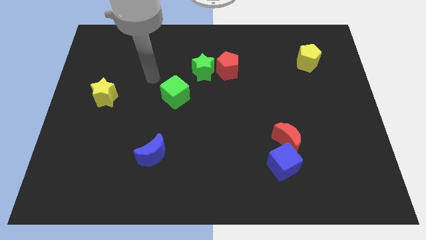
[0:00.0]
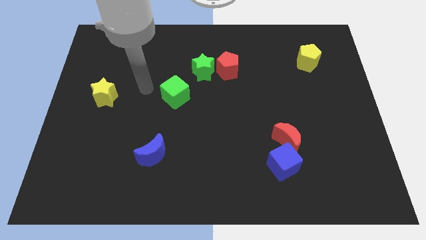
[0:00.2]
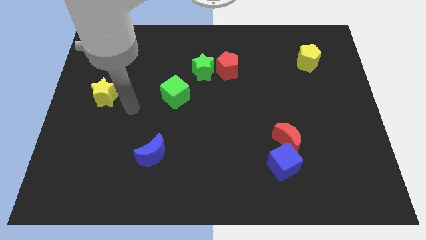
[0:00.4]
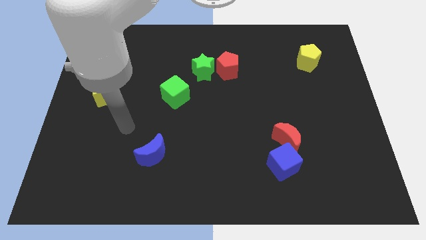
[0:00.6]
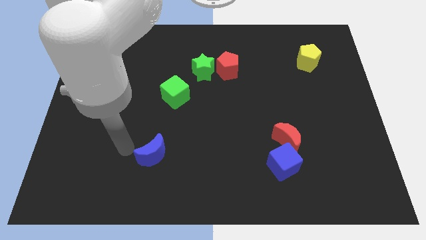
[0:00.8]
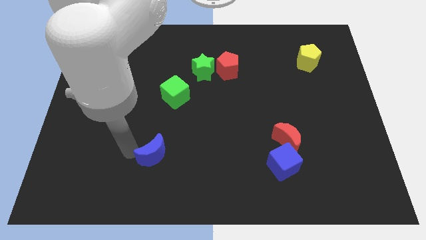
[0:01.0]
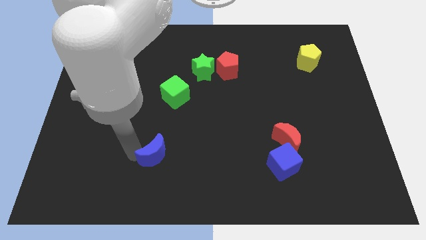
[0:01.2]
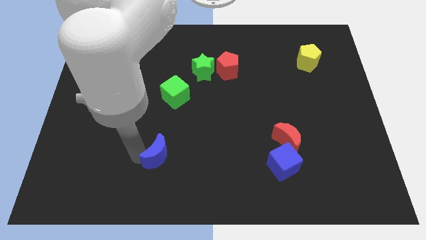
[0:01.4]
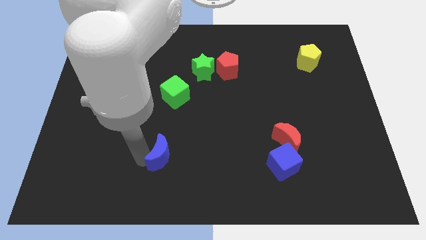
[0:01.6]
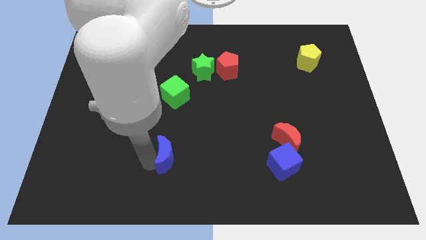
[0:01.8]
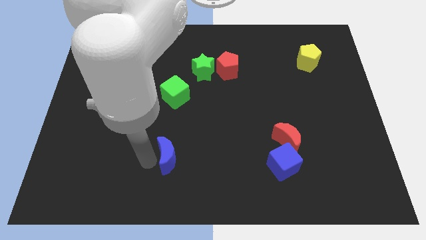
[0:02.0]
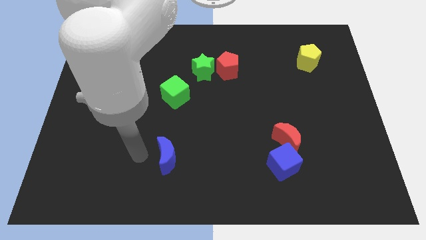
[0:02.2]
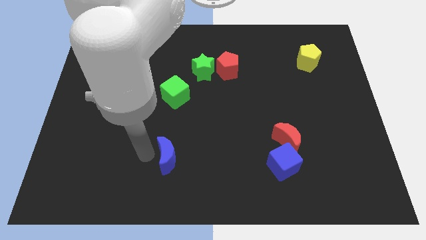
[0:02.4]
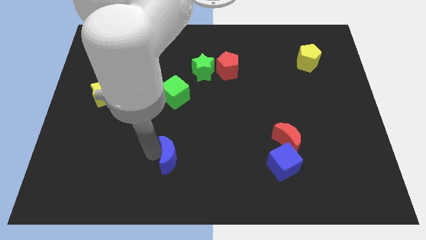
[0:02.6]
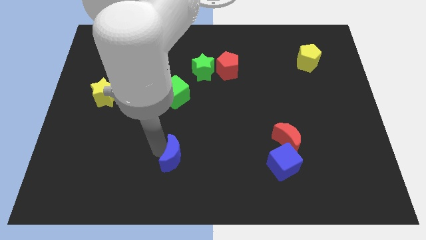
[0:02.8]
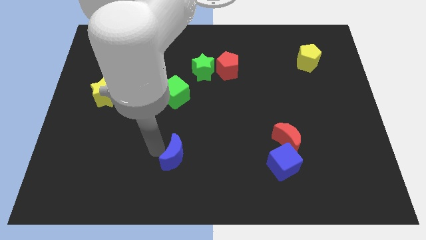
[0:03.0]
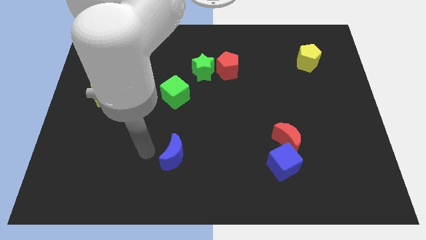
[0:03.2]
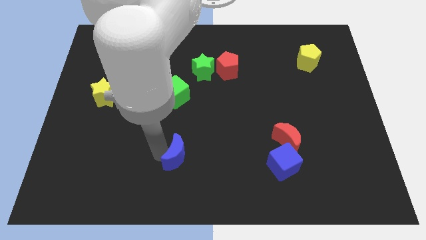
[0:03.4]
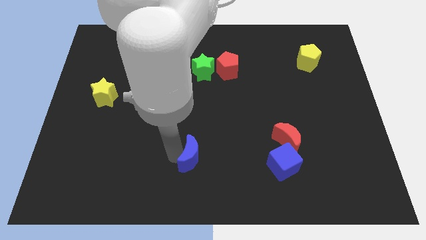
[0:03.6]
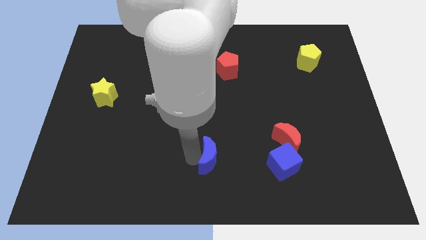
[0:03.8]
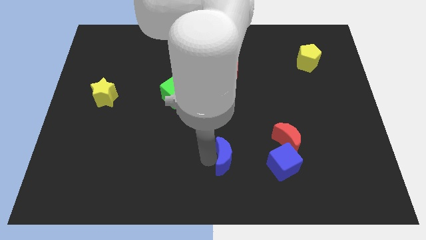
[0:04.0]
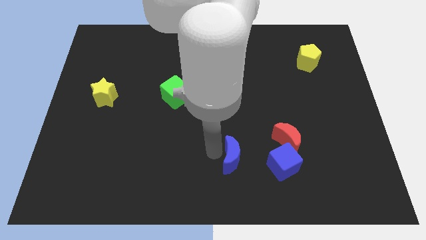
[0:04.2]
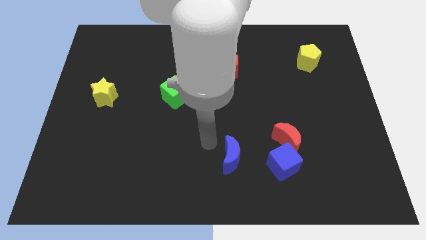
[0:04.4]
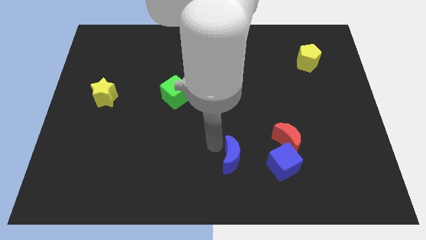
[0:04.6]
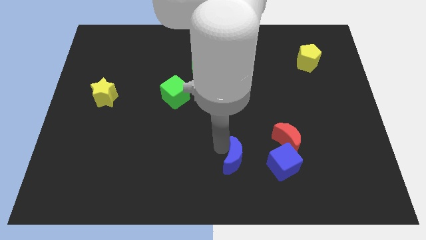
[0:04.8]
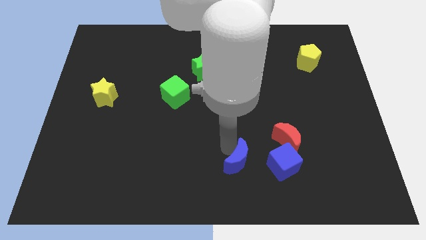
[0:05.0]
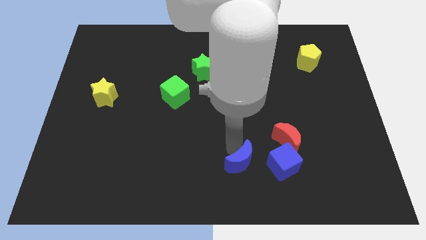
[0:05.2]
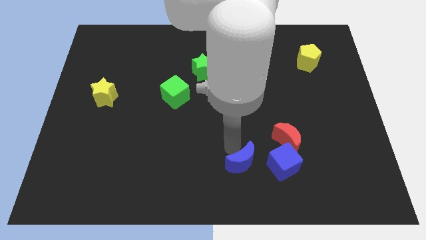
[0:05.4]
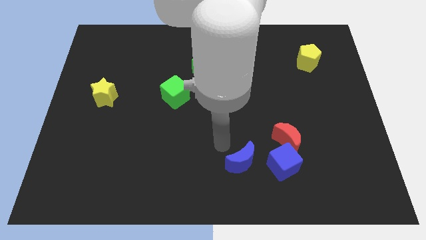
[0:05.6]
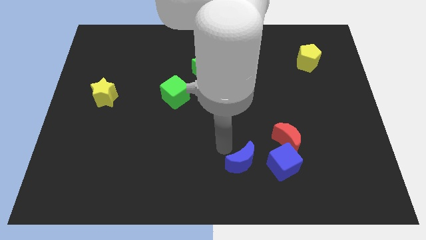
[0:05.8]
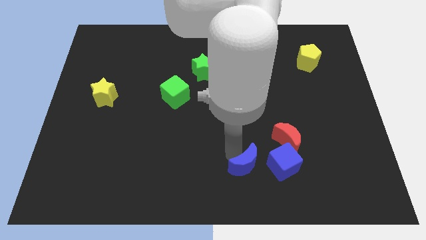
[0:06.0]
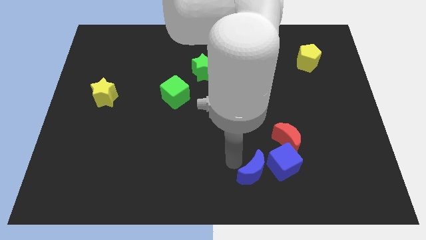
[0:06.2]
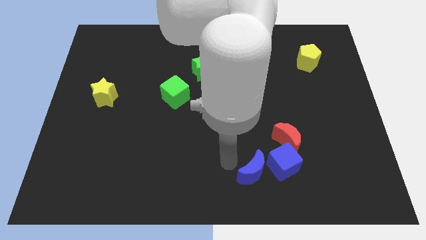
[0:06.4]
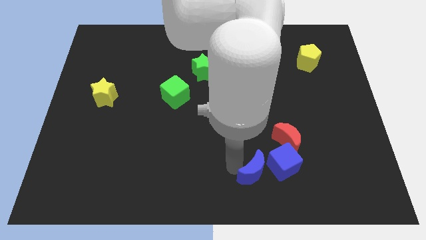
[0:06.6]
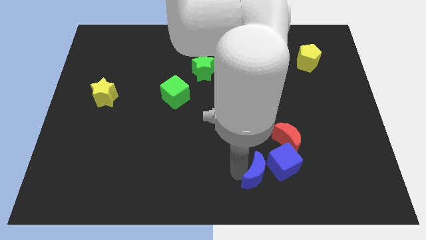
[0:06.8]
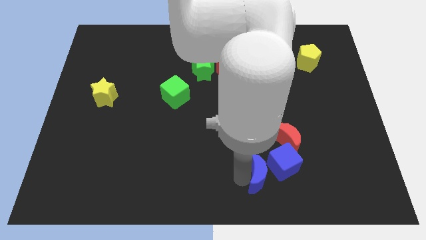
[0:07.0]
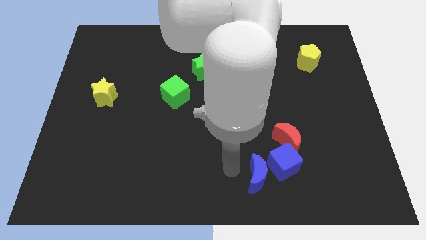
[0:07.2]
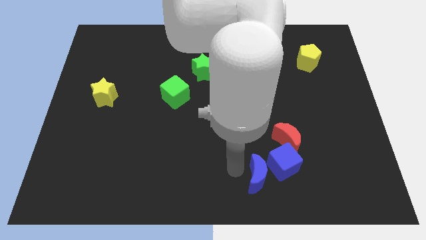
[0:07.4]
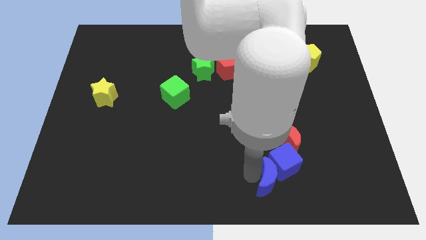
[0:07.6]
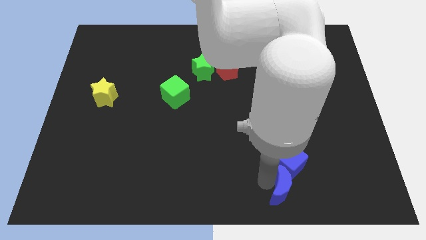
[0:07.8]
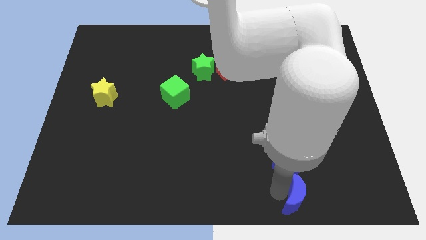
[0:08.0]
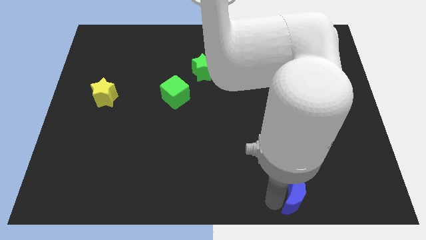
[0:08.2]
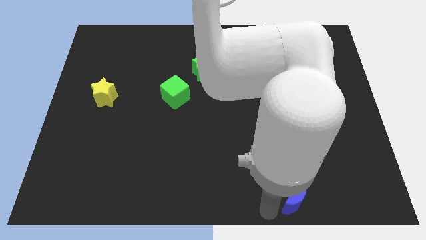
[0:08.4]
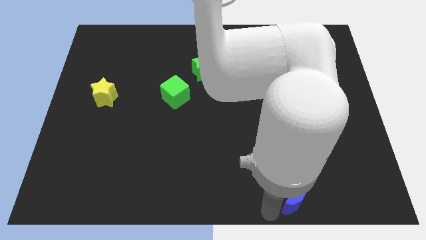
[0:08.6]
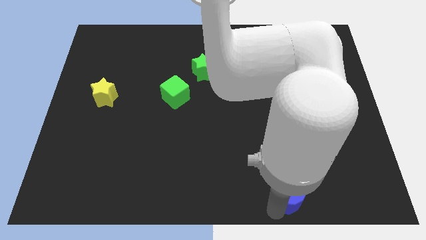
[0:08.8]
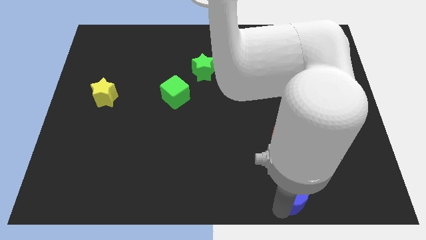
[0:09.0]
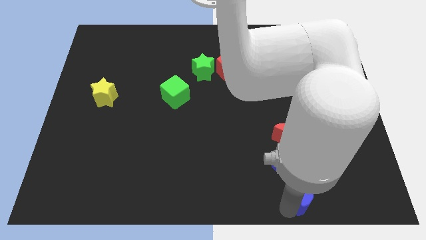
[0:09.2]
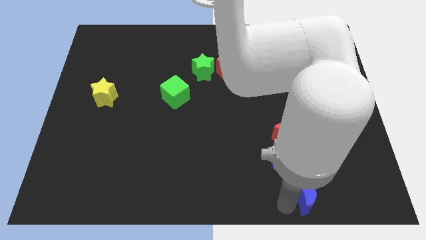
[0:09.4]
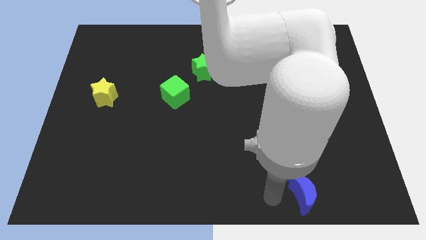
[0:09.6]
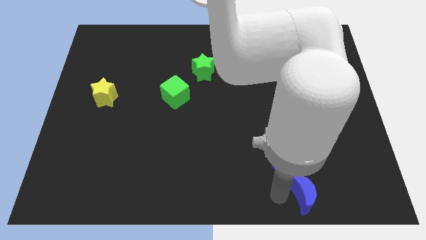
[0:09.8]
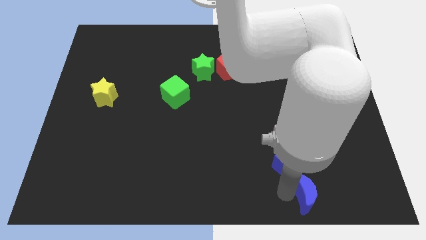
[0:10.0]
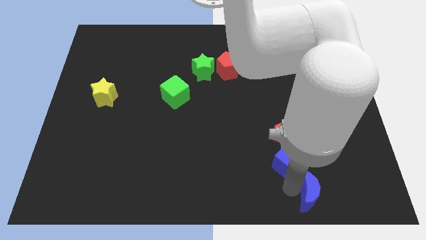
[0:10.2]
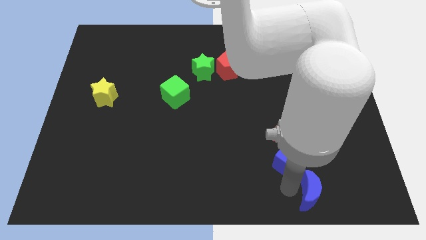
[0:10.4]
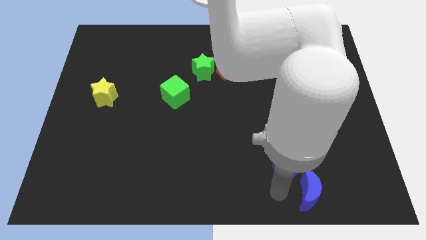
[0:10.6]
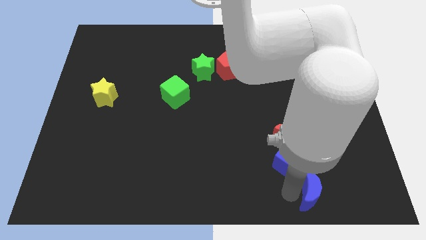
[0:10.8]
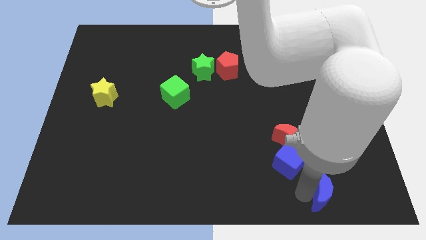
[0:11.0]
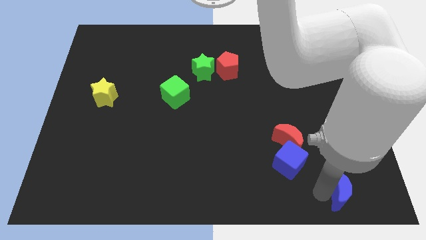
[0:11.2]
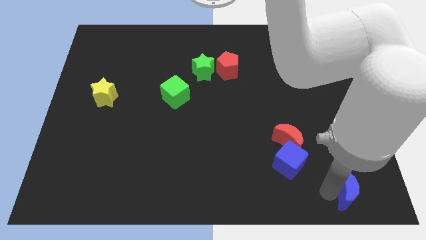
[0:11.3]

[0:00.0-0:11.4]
put the blue moon to the bottom right corner

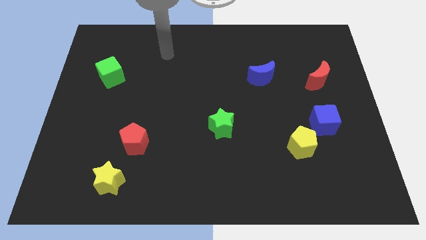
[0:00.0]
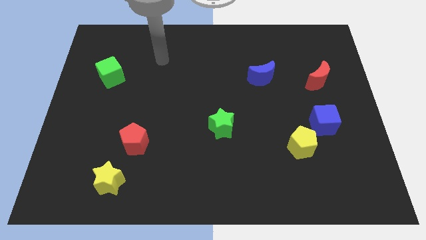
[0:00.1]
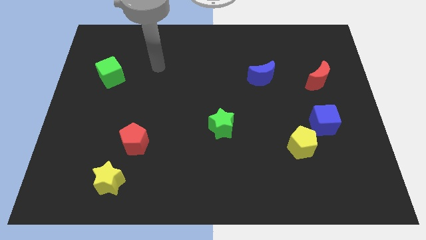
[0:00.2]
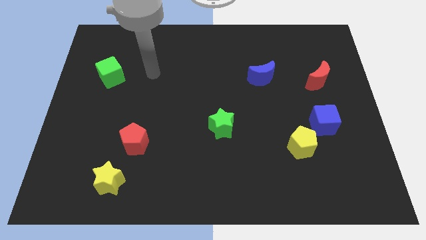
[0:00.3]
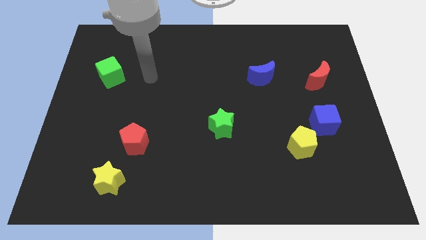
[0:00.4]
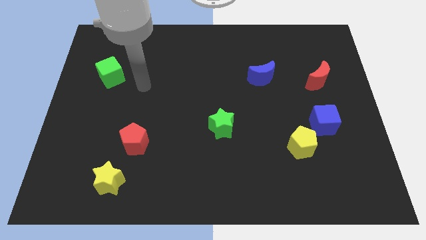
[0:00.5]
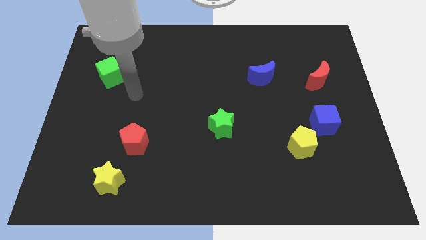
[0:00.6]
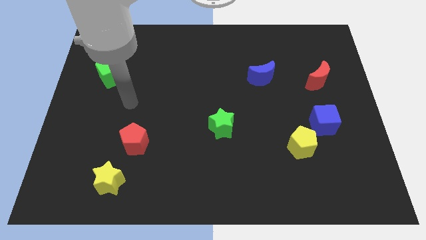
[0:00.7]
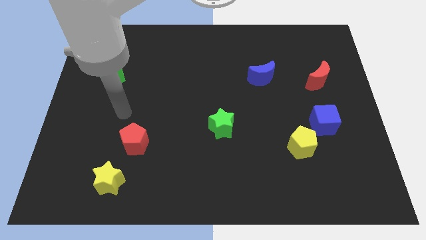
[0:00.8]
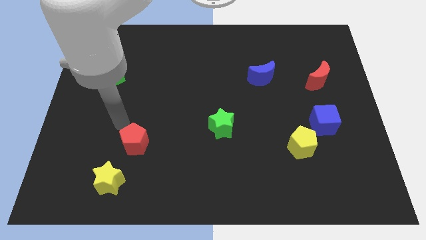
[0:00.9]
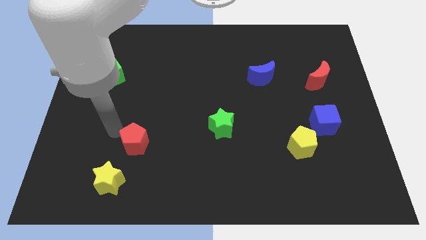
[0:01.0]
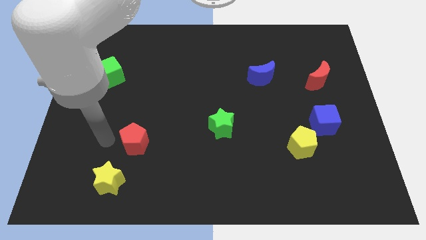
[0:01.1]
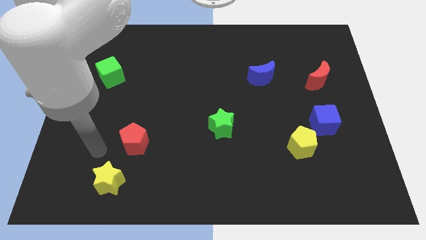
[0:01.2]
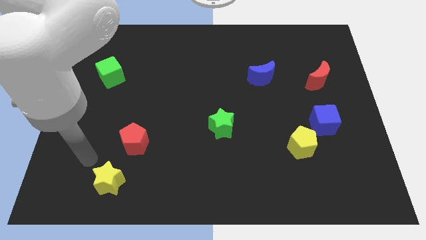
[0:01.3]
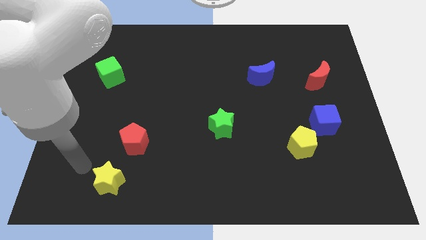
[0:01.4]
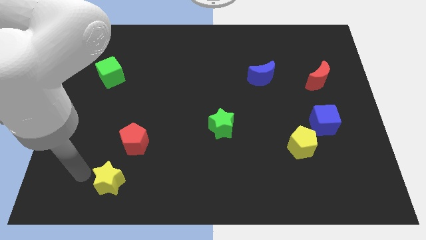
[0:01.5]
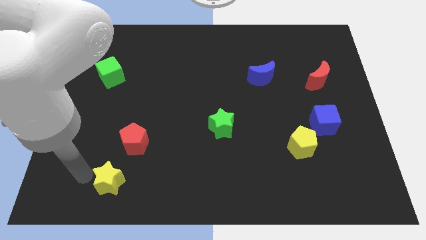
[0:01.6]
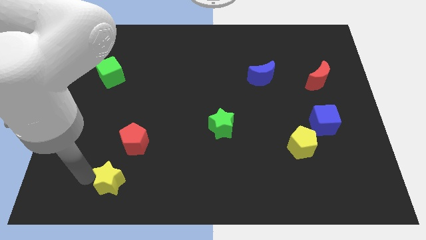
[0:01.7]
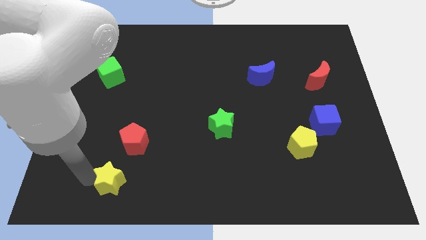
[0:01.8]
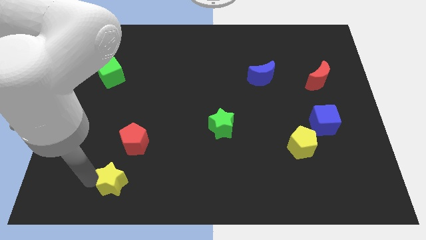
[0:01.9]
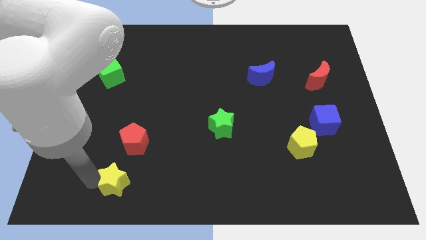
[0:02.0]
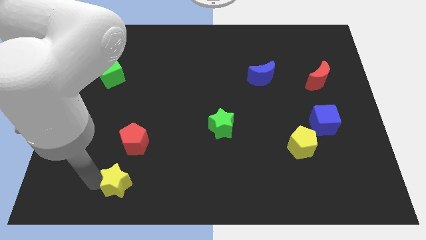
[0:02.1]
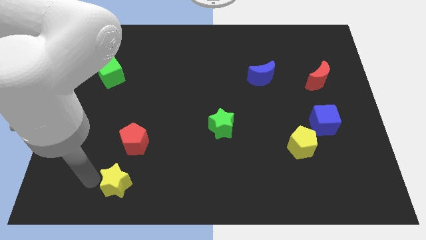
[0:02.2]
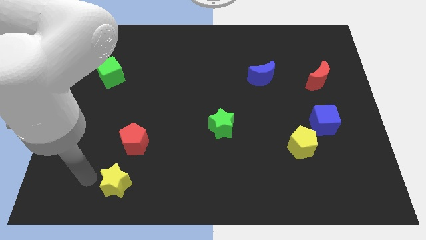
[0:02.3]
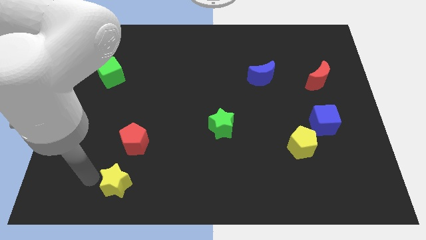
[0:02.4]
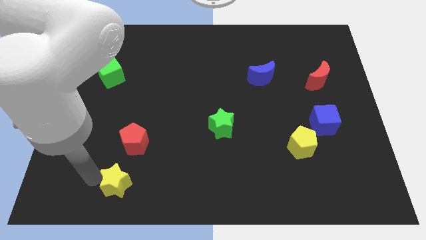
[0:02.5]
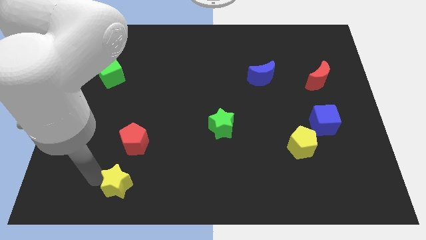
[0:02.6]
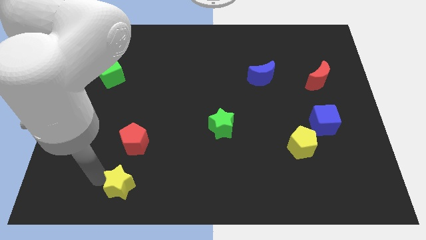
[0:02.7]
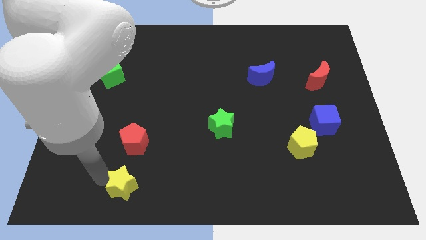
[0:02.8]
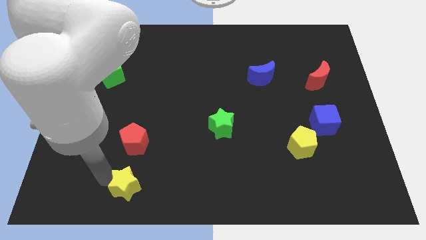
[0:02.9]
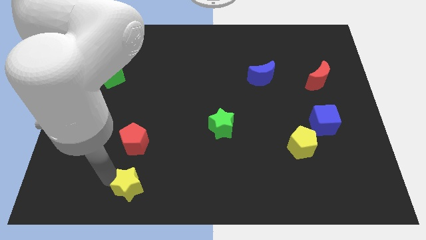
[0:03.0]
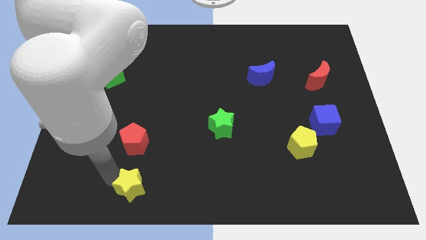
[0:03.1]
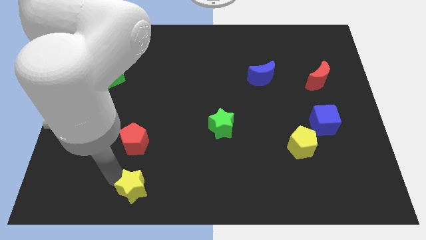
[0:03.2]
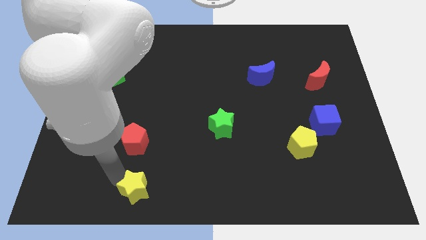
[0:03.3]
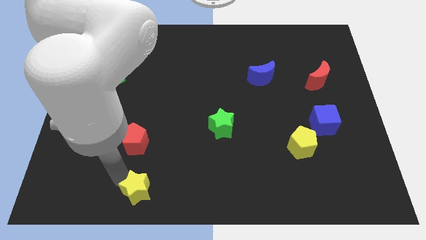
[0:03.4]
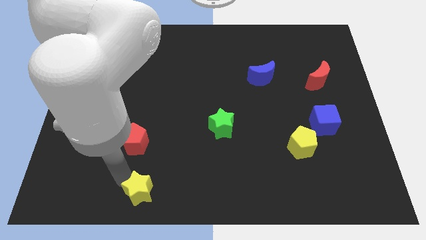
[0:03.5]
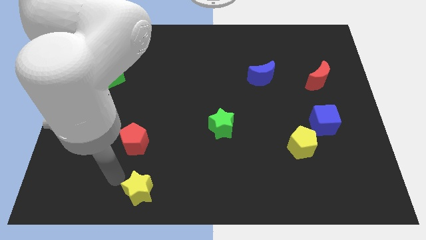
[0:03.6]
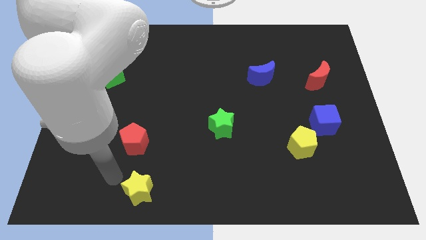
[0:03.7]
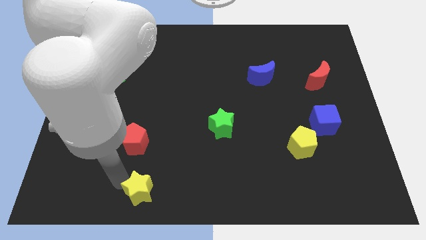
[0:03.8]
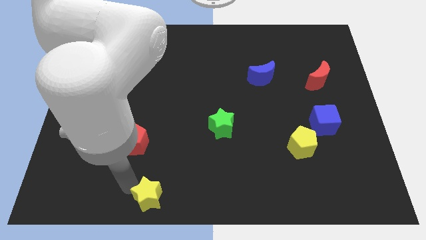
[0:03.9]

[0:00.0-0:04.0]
put the yellow star to the bottom side
